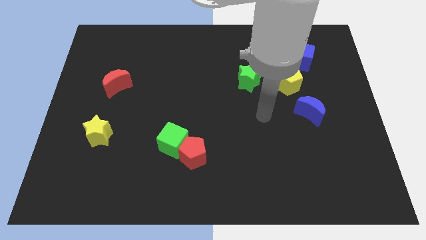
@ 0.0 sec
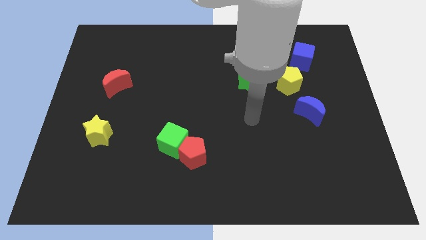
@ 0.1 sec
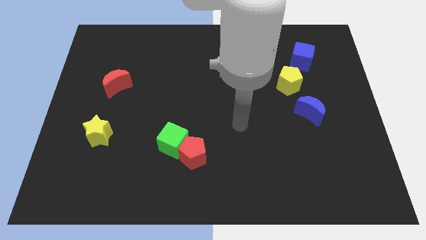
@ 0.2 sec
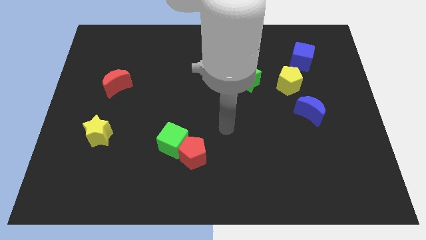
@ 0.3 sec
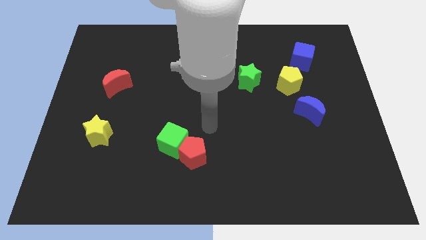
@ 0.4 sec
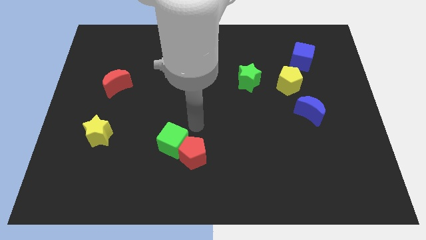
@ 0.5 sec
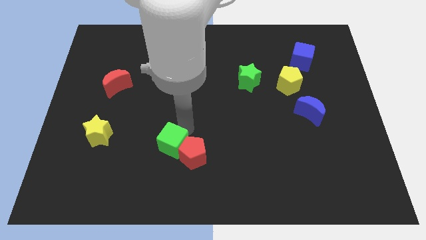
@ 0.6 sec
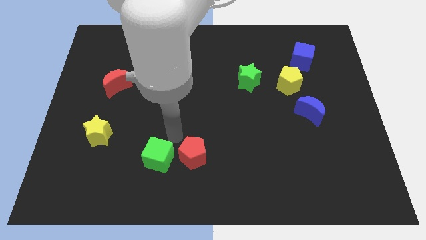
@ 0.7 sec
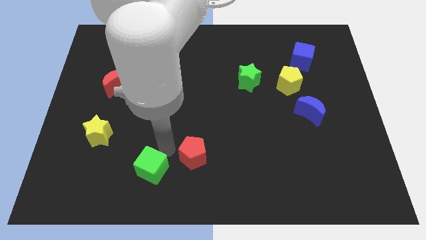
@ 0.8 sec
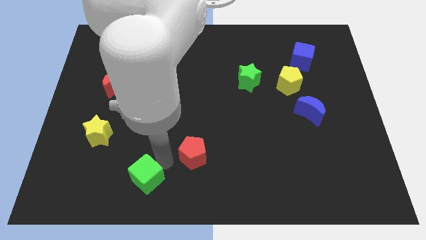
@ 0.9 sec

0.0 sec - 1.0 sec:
pull the red pentagon apart from the green cube

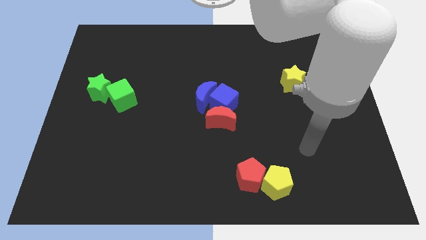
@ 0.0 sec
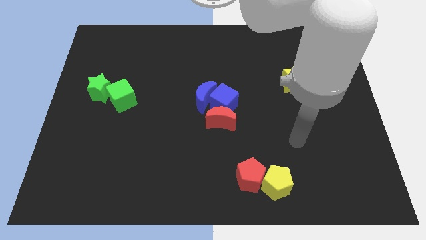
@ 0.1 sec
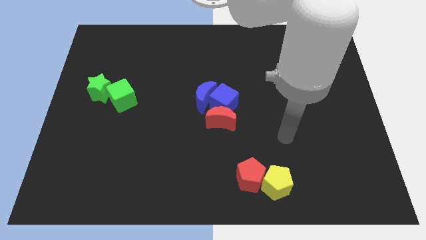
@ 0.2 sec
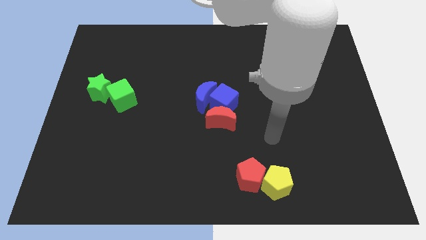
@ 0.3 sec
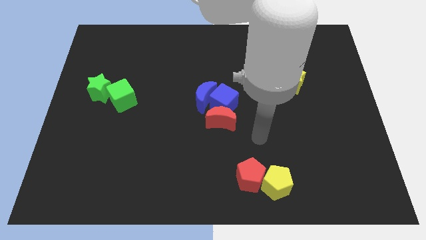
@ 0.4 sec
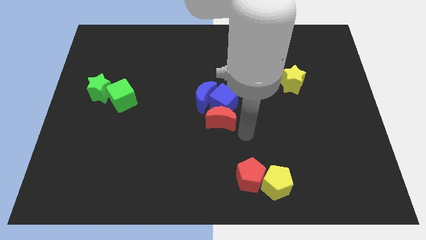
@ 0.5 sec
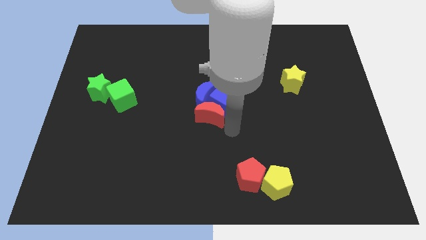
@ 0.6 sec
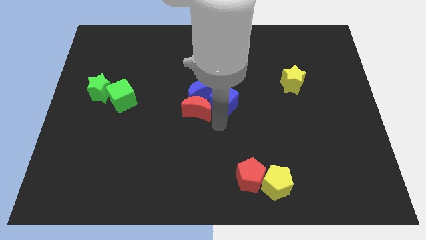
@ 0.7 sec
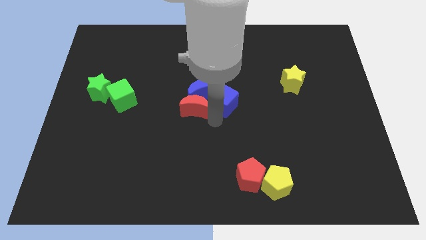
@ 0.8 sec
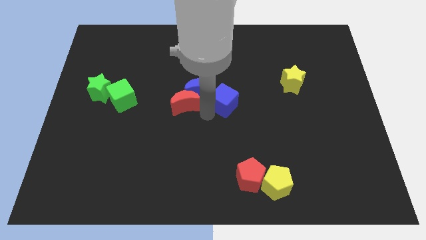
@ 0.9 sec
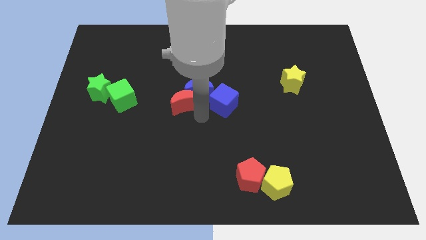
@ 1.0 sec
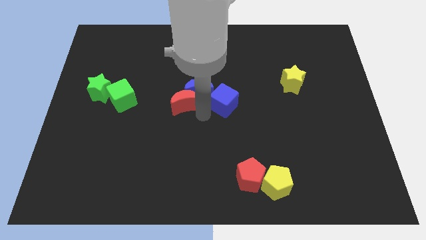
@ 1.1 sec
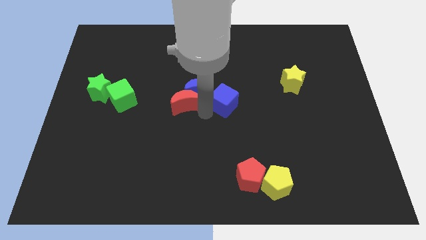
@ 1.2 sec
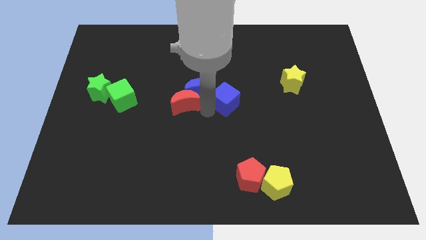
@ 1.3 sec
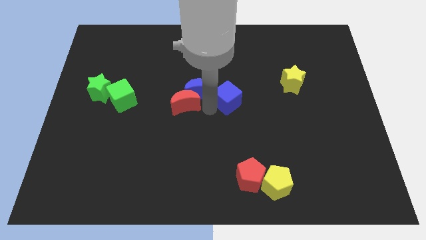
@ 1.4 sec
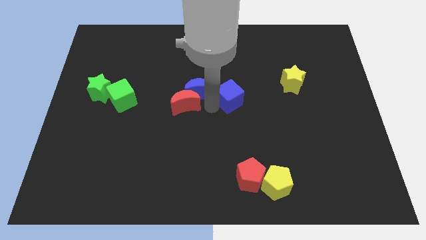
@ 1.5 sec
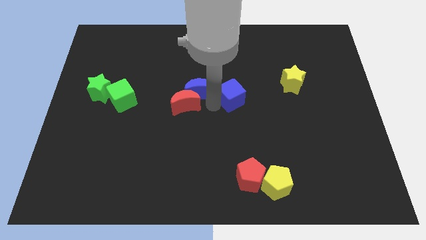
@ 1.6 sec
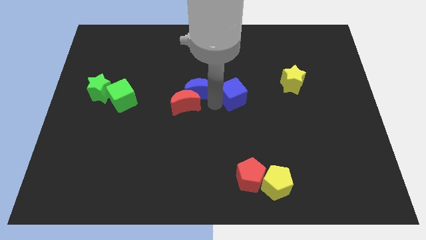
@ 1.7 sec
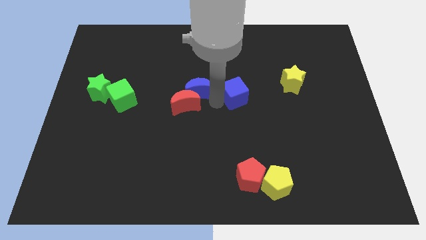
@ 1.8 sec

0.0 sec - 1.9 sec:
separate the blue cube from the blue moon and red moon

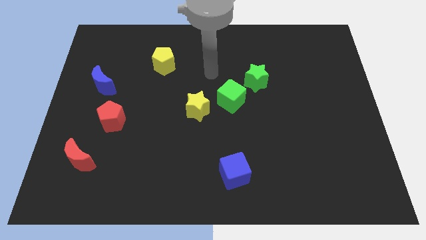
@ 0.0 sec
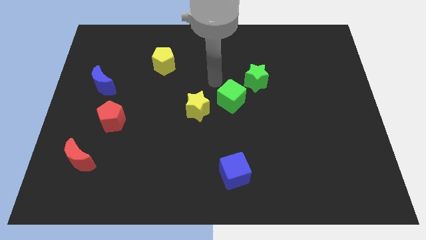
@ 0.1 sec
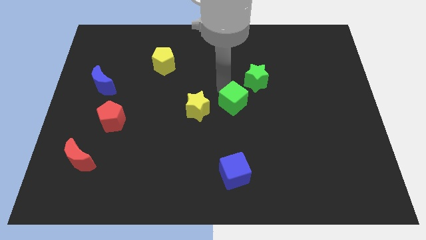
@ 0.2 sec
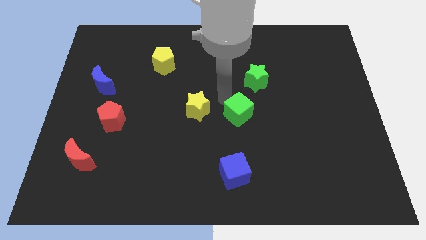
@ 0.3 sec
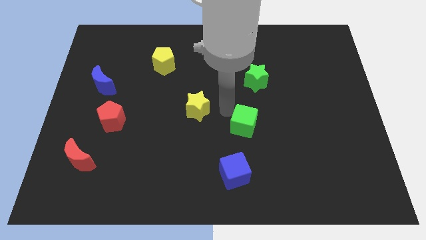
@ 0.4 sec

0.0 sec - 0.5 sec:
pull the yellow star apart from the green cube

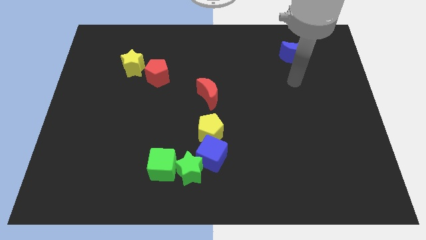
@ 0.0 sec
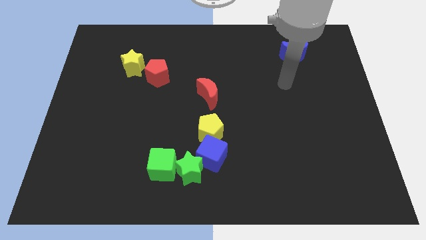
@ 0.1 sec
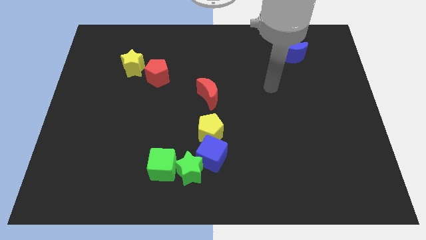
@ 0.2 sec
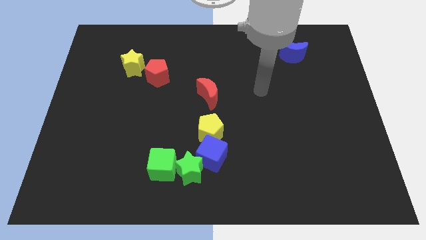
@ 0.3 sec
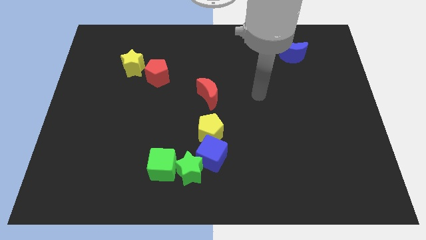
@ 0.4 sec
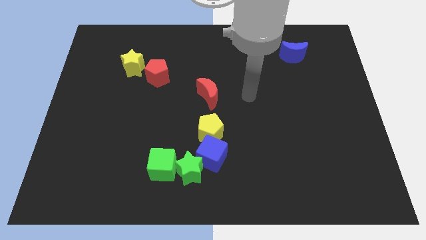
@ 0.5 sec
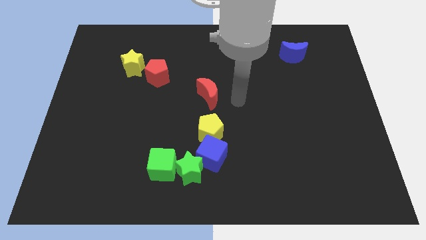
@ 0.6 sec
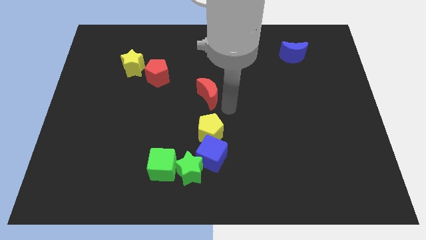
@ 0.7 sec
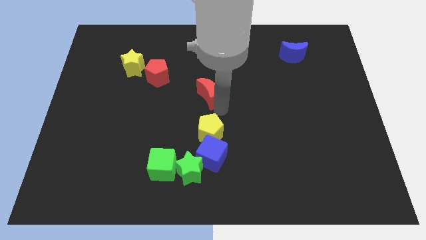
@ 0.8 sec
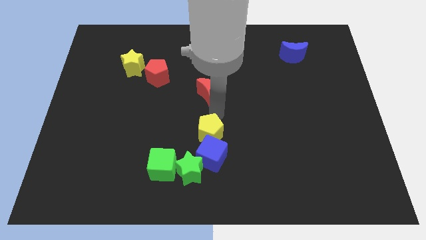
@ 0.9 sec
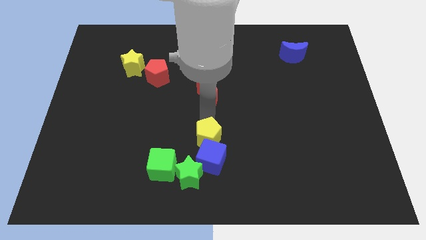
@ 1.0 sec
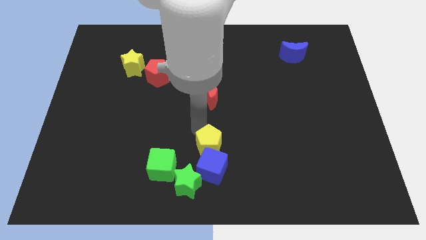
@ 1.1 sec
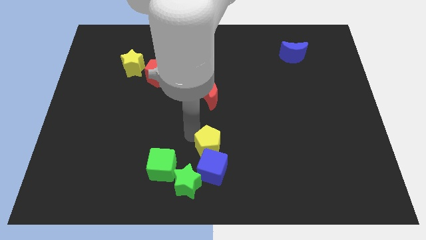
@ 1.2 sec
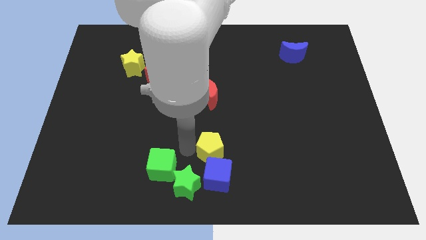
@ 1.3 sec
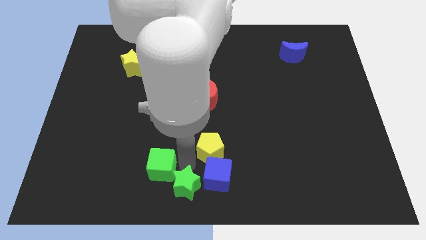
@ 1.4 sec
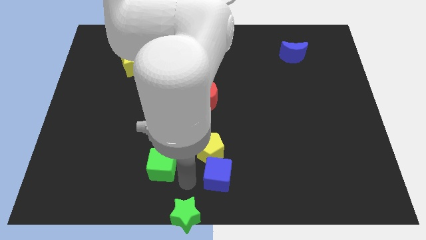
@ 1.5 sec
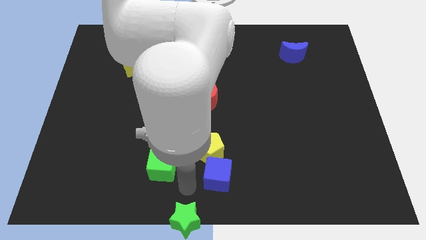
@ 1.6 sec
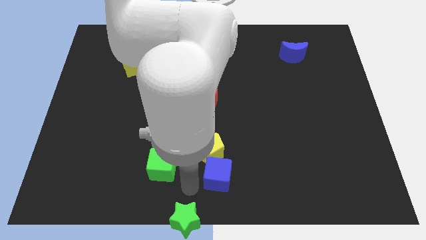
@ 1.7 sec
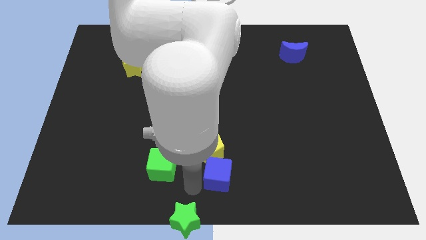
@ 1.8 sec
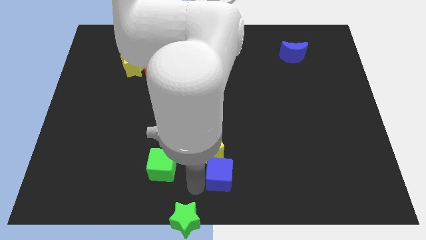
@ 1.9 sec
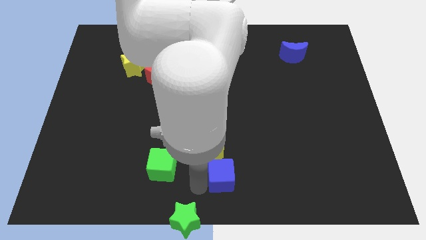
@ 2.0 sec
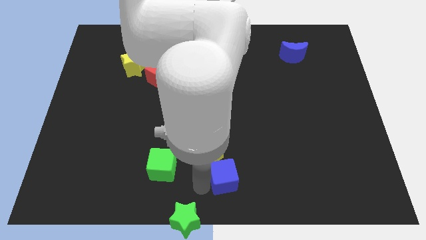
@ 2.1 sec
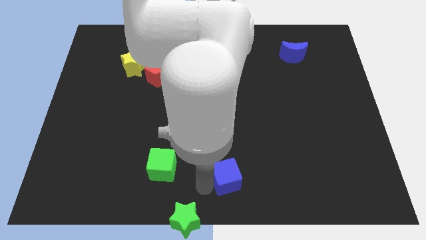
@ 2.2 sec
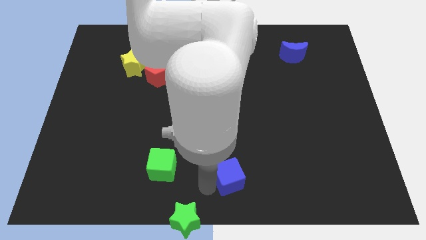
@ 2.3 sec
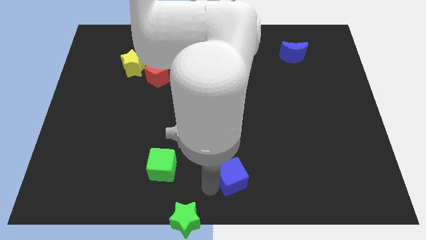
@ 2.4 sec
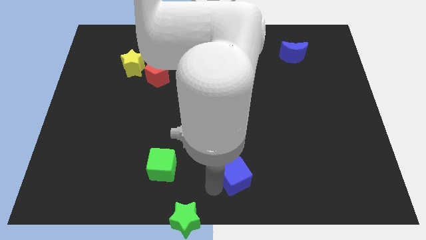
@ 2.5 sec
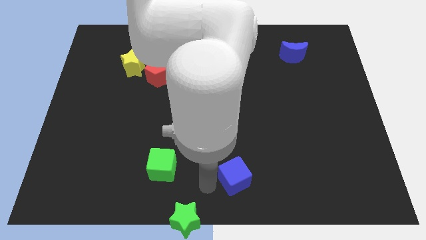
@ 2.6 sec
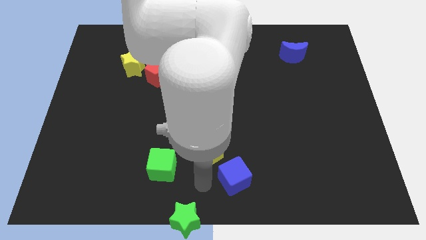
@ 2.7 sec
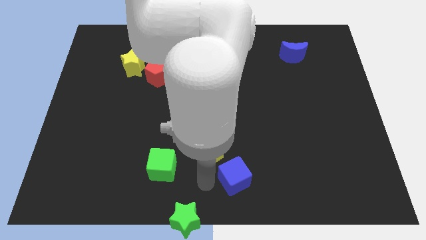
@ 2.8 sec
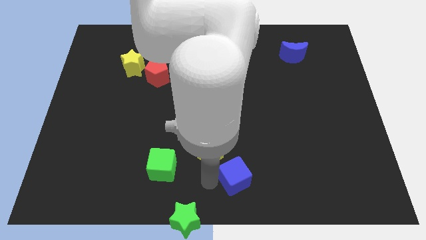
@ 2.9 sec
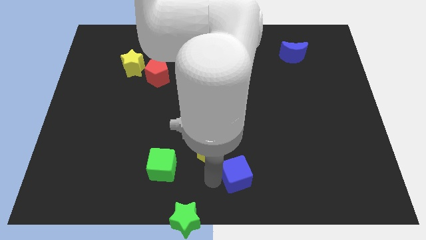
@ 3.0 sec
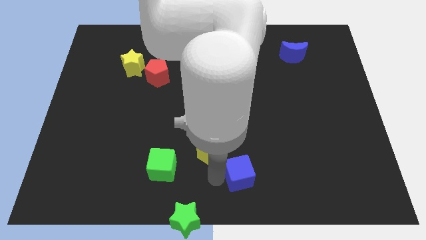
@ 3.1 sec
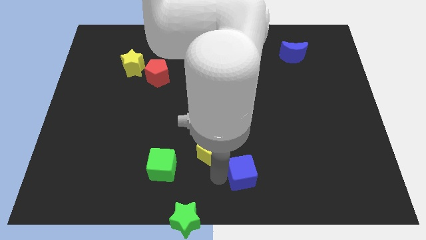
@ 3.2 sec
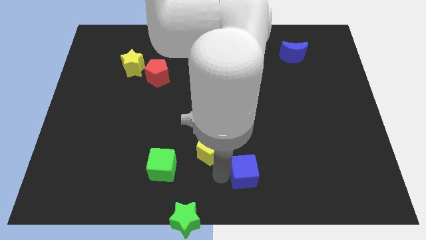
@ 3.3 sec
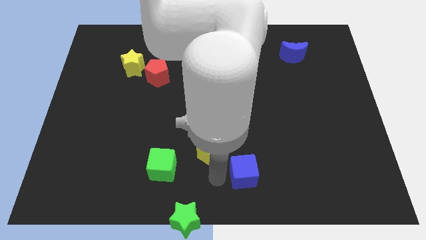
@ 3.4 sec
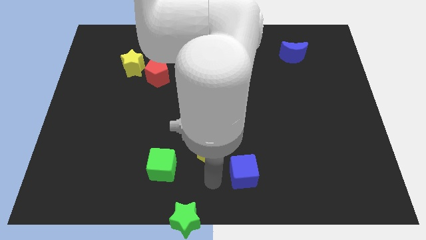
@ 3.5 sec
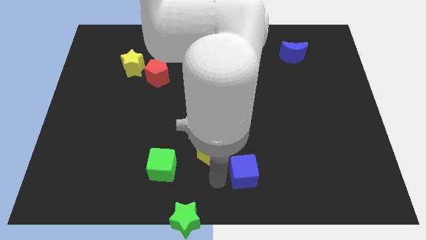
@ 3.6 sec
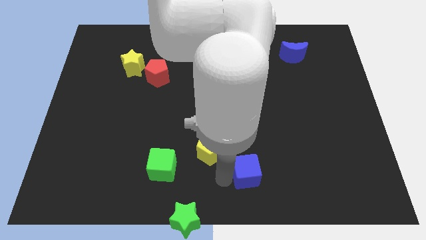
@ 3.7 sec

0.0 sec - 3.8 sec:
separate the blue cube from the green star and yellow pentagon

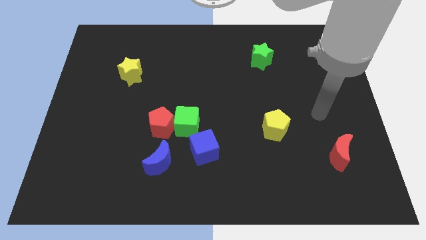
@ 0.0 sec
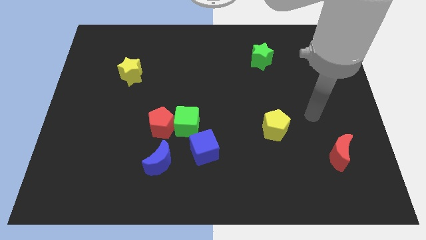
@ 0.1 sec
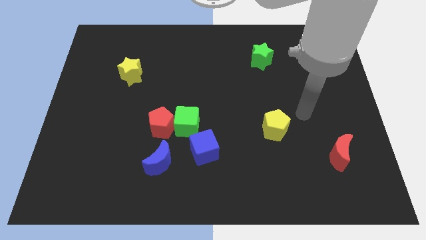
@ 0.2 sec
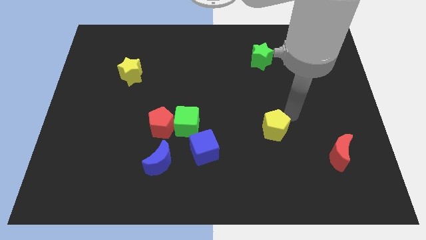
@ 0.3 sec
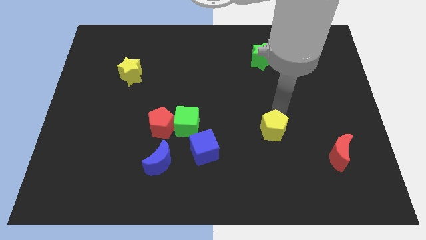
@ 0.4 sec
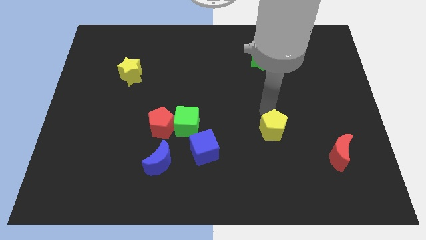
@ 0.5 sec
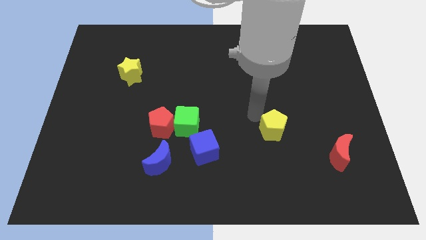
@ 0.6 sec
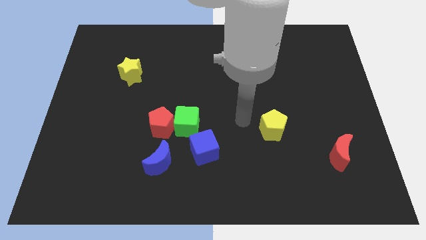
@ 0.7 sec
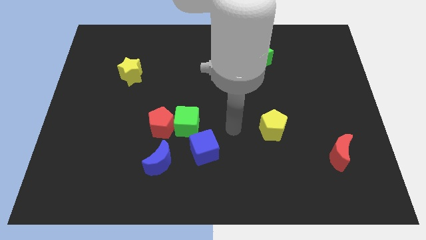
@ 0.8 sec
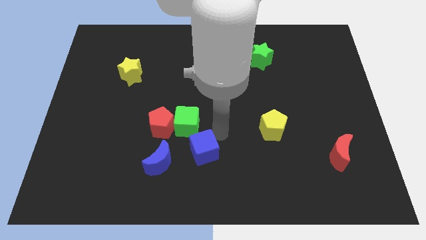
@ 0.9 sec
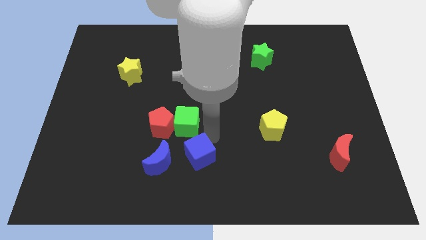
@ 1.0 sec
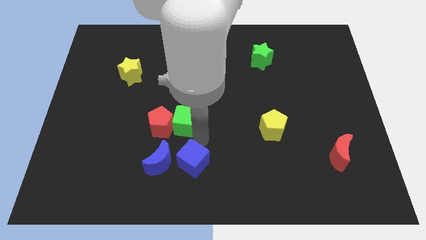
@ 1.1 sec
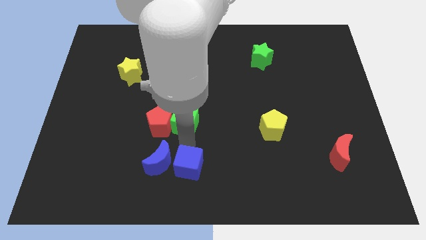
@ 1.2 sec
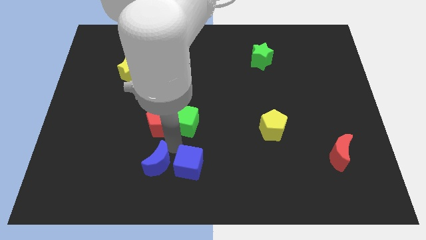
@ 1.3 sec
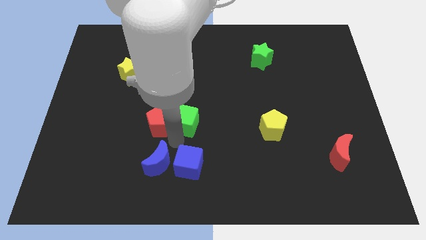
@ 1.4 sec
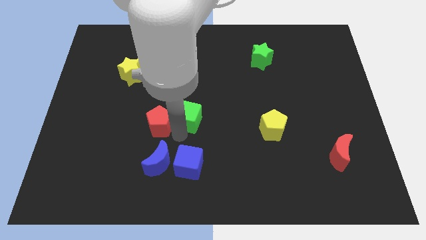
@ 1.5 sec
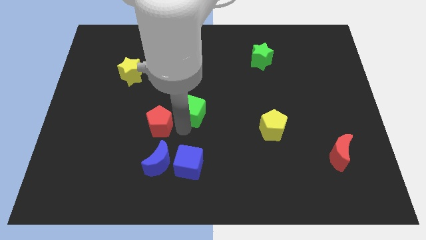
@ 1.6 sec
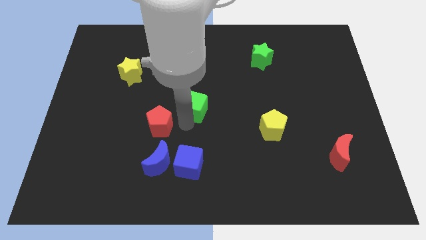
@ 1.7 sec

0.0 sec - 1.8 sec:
pull the green cube apart from the red pentagon and blue cube

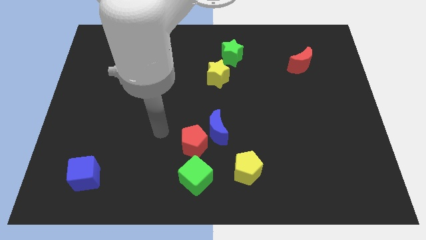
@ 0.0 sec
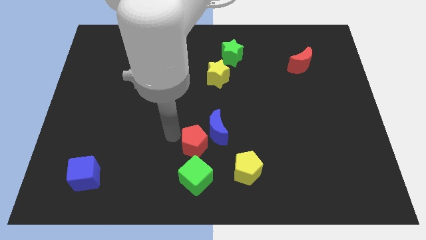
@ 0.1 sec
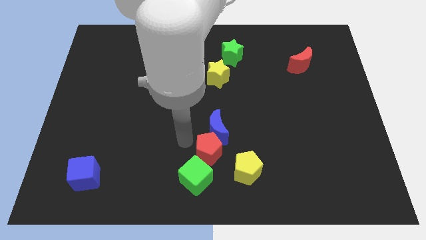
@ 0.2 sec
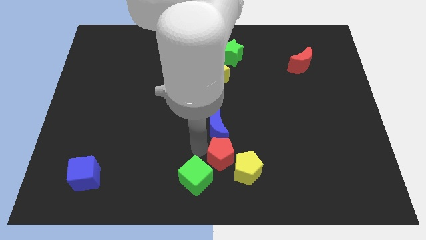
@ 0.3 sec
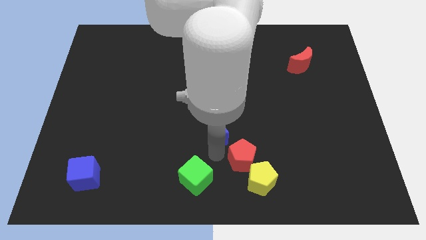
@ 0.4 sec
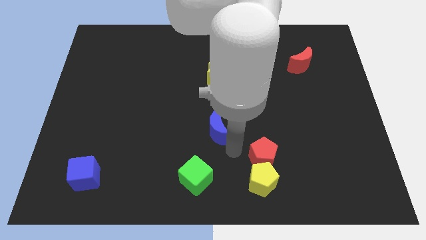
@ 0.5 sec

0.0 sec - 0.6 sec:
separate the blue moon from the red pentagon
